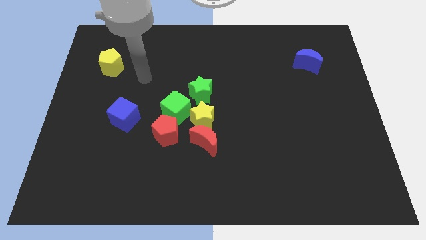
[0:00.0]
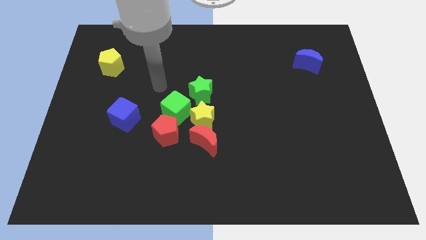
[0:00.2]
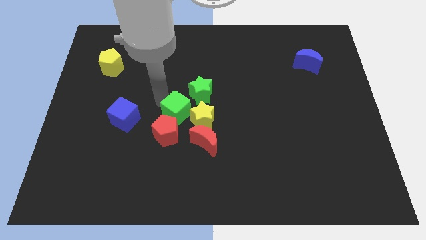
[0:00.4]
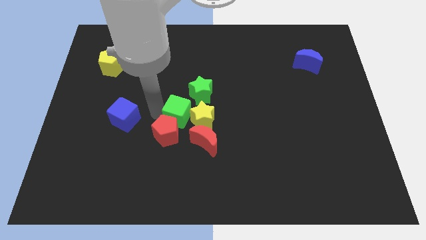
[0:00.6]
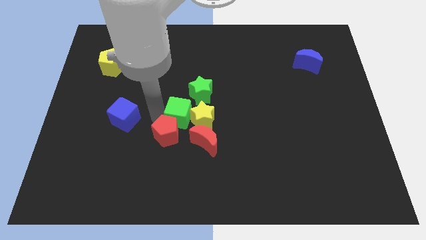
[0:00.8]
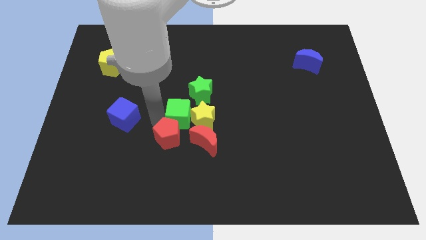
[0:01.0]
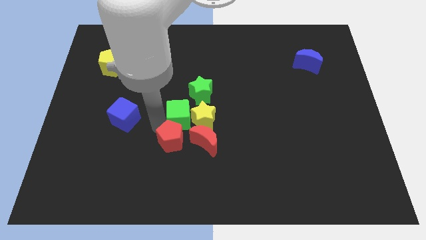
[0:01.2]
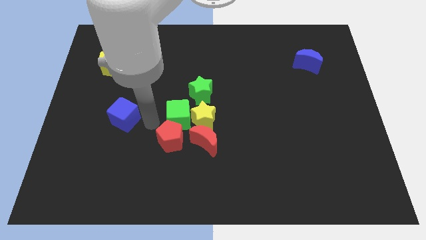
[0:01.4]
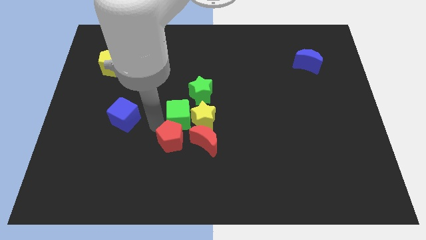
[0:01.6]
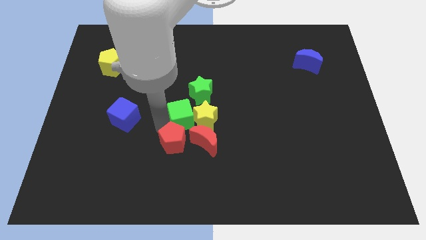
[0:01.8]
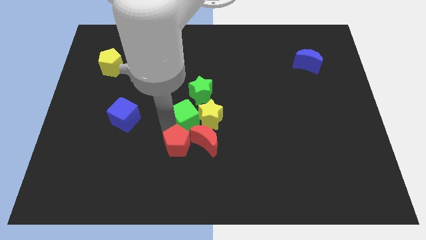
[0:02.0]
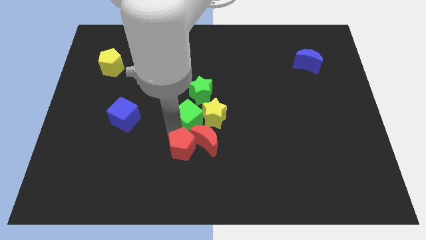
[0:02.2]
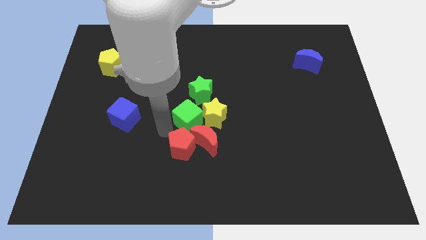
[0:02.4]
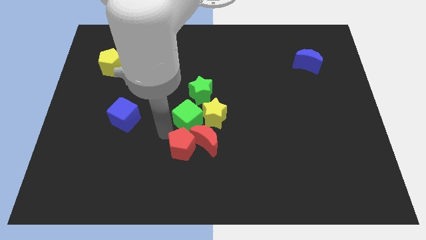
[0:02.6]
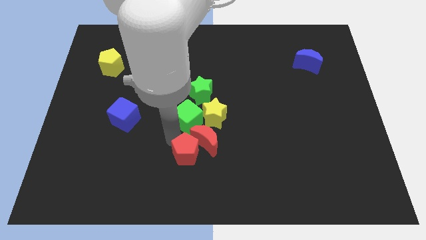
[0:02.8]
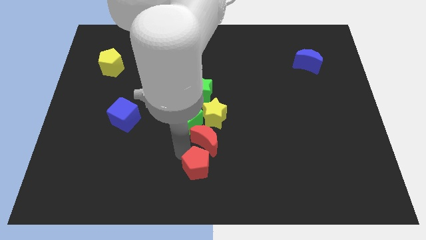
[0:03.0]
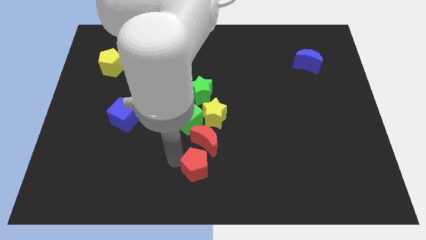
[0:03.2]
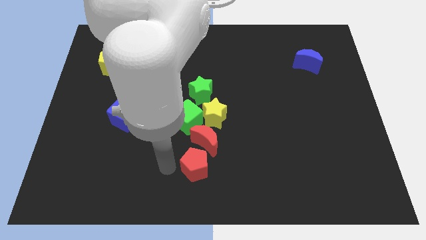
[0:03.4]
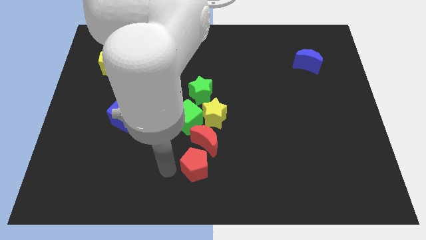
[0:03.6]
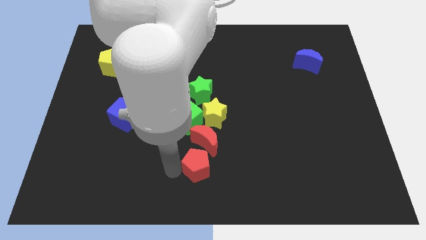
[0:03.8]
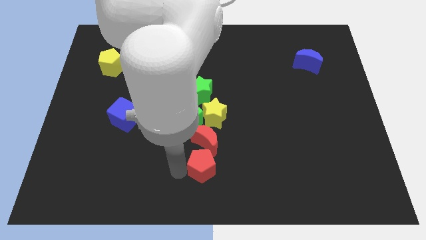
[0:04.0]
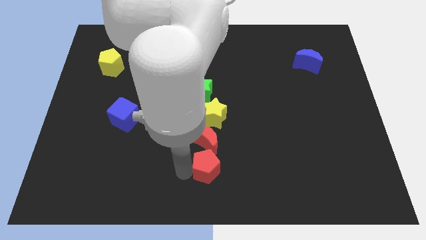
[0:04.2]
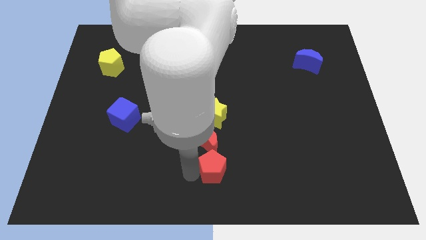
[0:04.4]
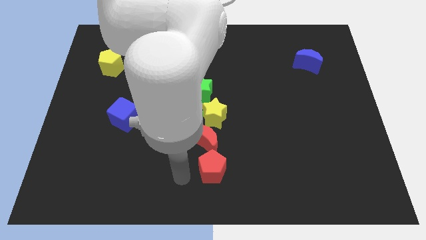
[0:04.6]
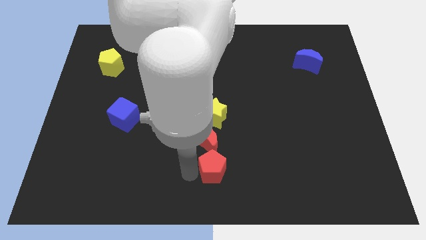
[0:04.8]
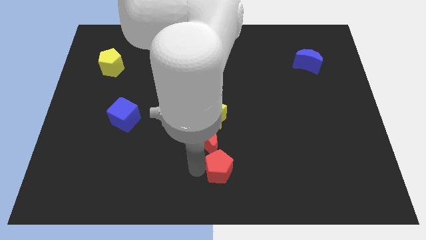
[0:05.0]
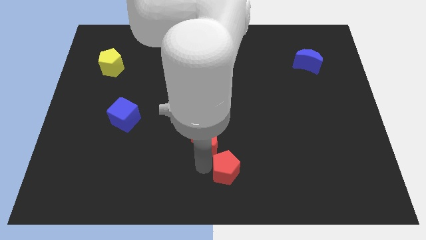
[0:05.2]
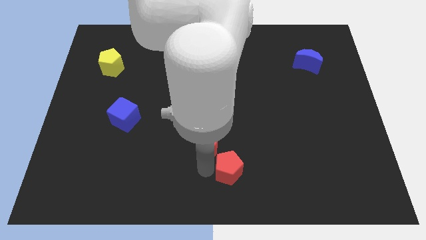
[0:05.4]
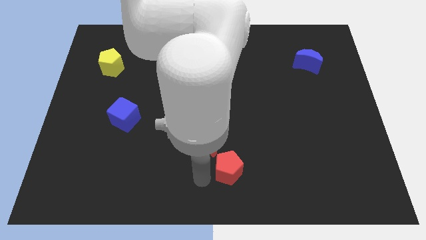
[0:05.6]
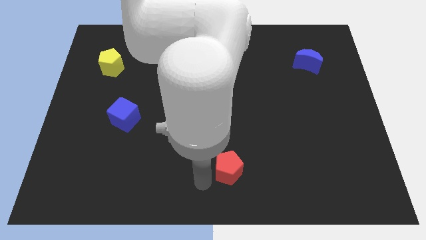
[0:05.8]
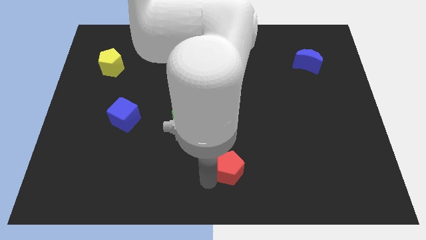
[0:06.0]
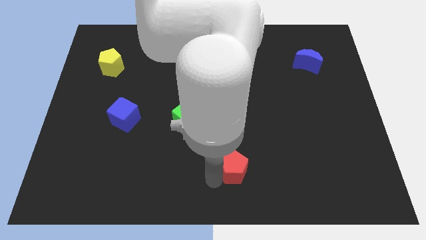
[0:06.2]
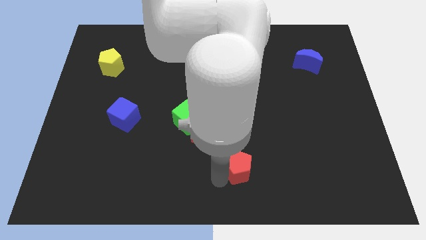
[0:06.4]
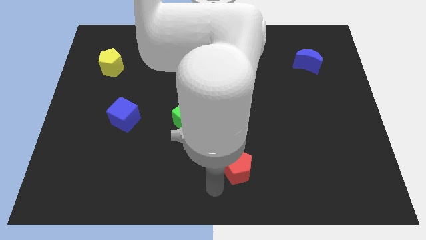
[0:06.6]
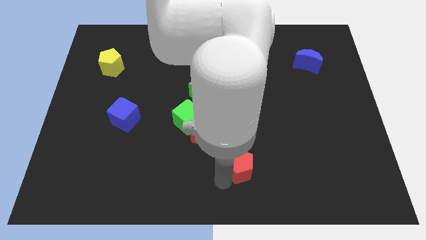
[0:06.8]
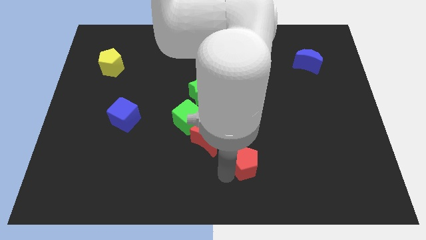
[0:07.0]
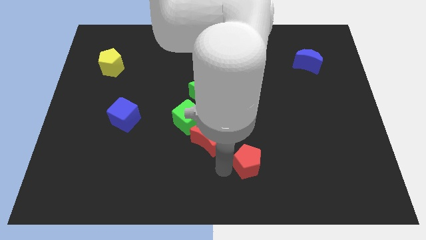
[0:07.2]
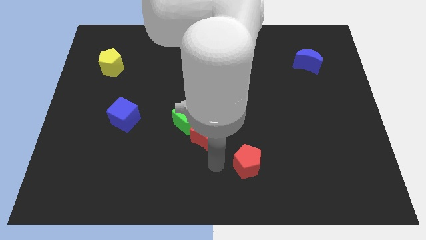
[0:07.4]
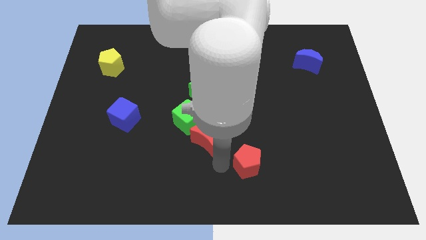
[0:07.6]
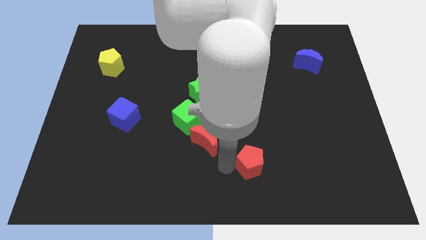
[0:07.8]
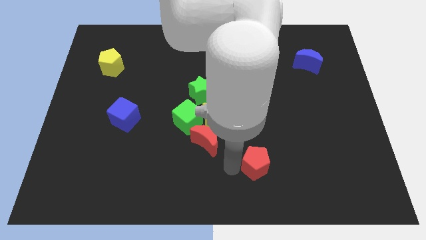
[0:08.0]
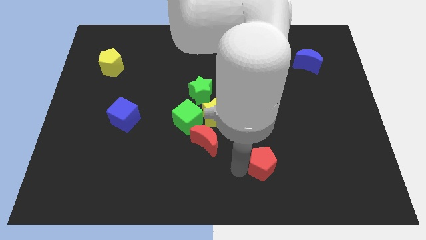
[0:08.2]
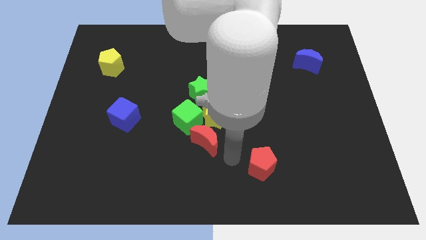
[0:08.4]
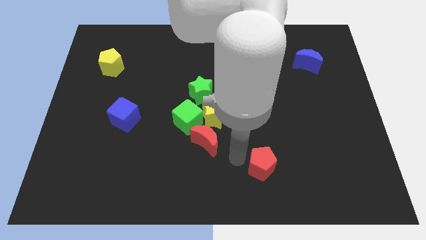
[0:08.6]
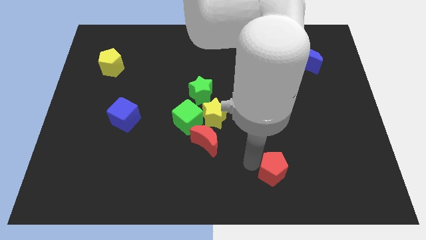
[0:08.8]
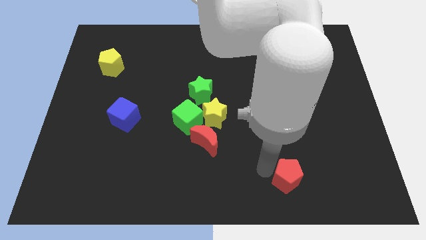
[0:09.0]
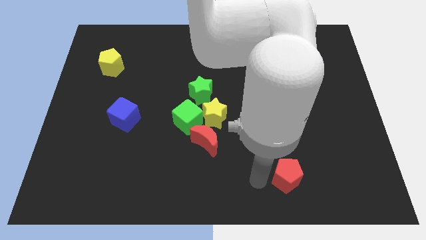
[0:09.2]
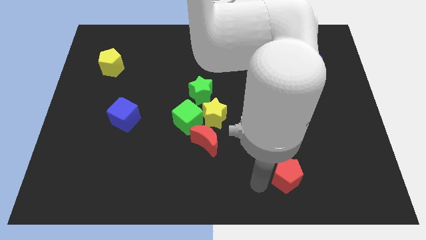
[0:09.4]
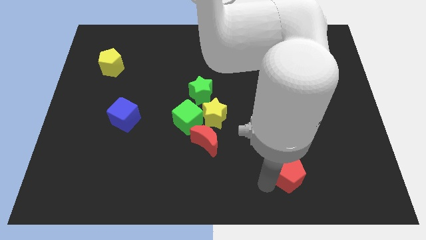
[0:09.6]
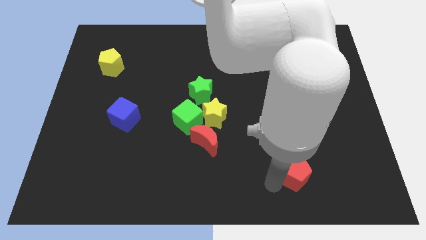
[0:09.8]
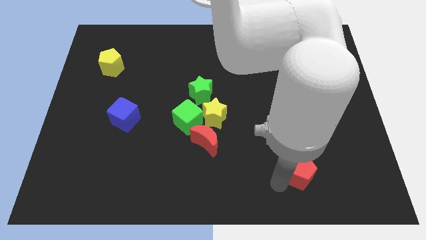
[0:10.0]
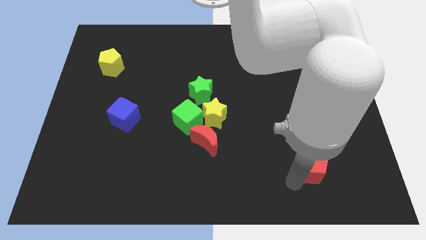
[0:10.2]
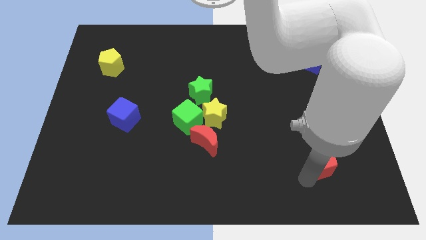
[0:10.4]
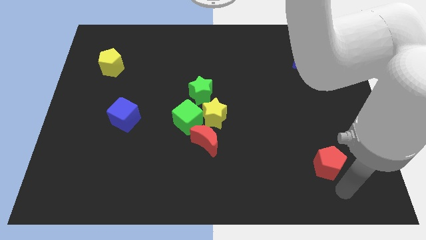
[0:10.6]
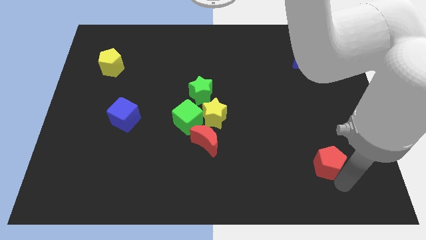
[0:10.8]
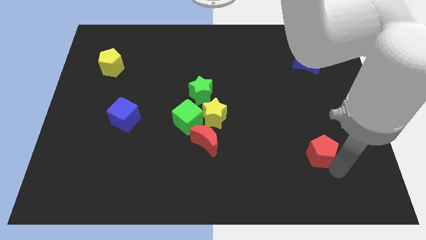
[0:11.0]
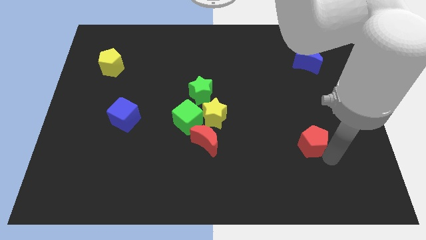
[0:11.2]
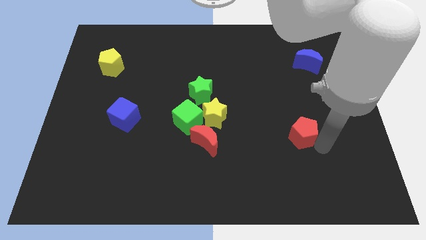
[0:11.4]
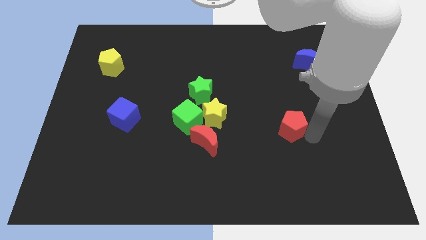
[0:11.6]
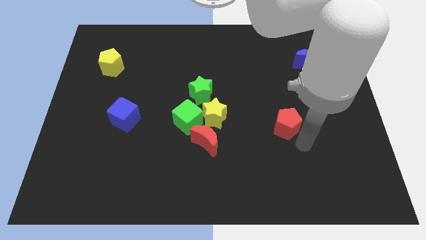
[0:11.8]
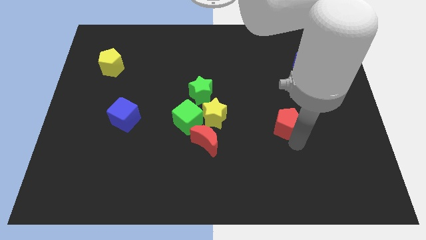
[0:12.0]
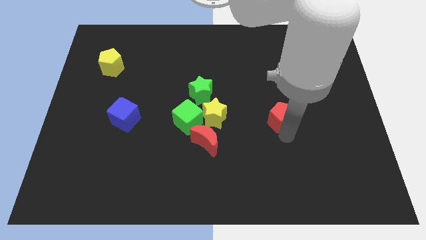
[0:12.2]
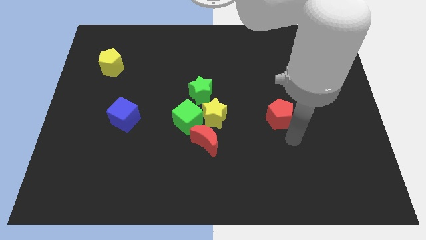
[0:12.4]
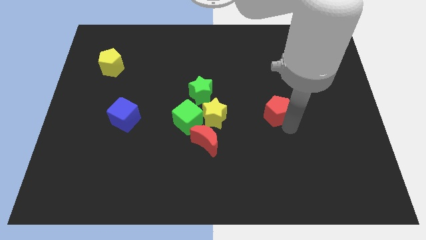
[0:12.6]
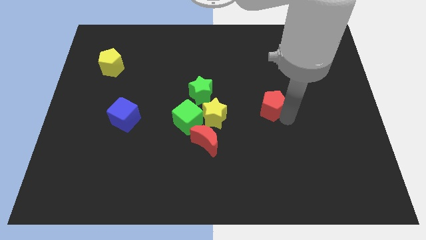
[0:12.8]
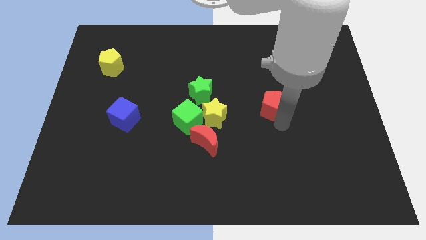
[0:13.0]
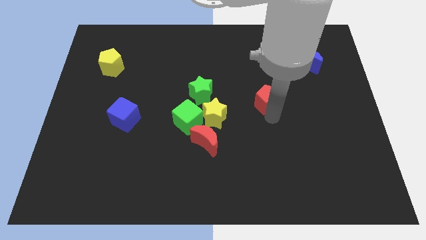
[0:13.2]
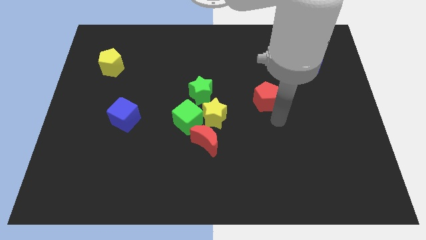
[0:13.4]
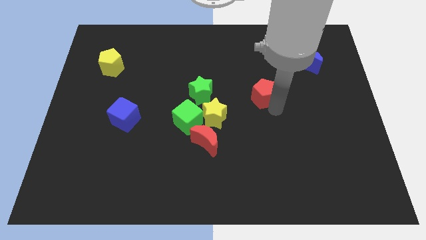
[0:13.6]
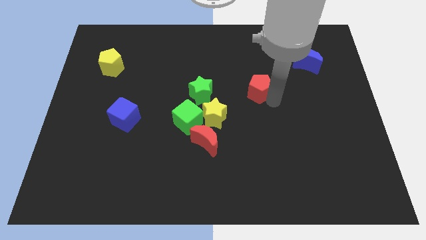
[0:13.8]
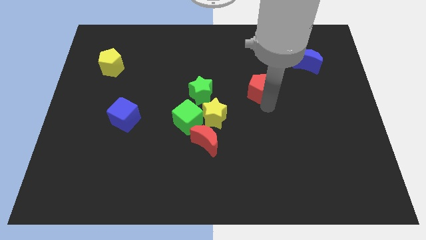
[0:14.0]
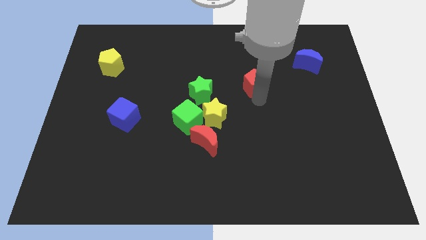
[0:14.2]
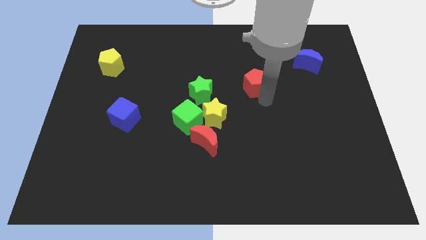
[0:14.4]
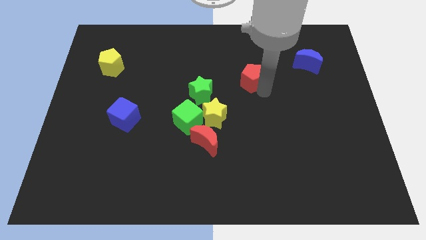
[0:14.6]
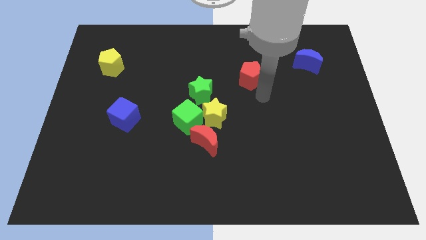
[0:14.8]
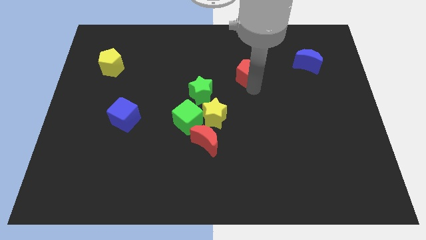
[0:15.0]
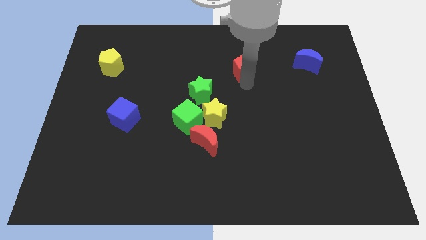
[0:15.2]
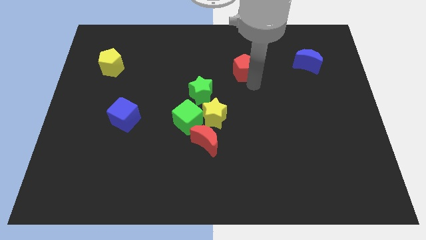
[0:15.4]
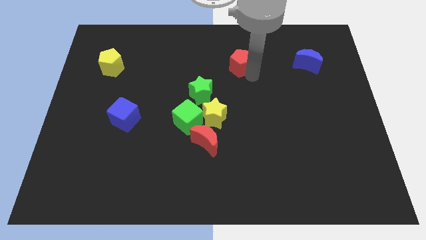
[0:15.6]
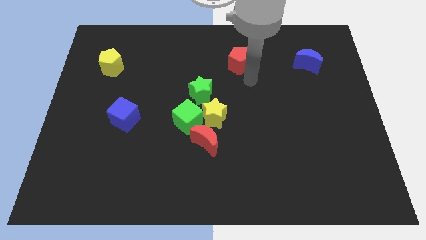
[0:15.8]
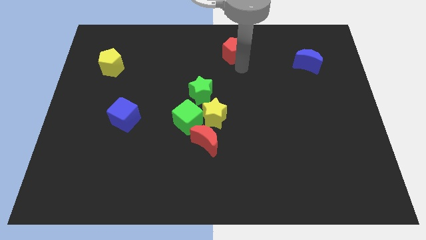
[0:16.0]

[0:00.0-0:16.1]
put the red pentagon to the top side
